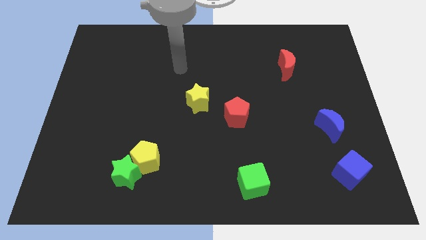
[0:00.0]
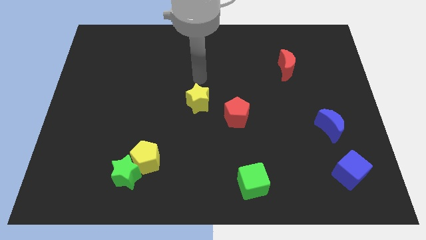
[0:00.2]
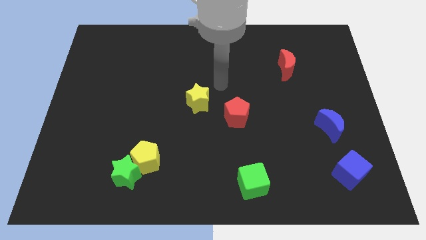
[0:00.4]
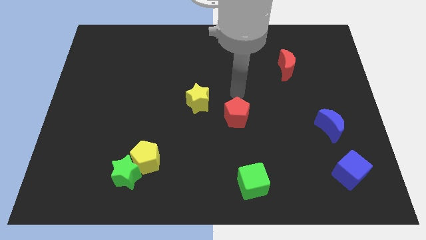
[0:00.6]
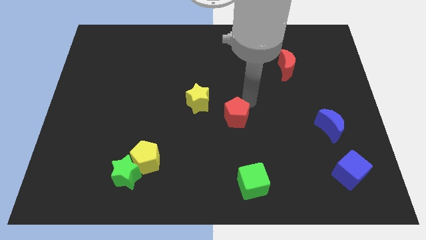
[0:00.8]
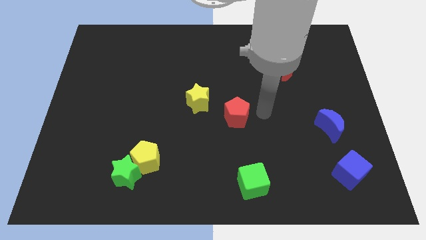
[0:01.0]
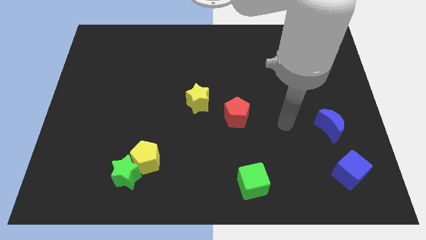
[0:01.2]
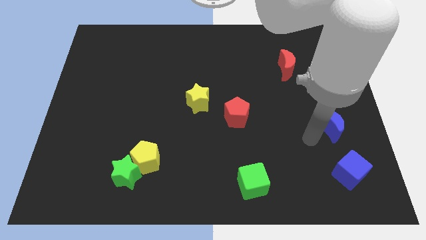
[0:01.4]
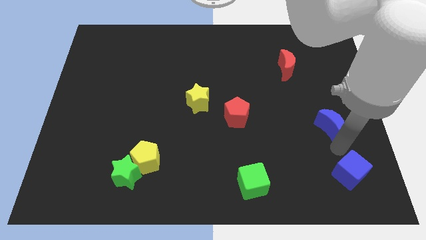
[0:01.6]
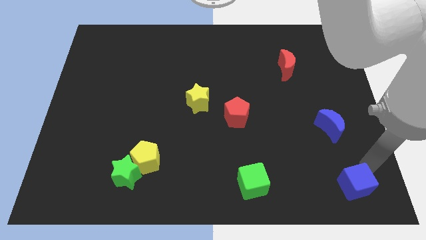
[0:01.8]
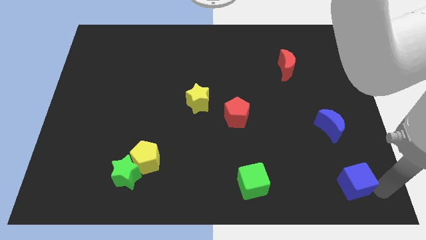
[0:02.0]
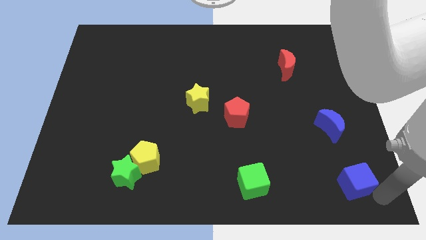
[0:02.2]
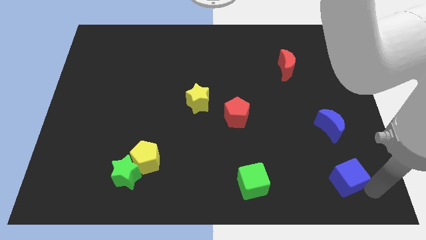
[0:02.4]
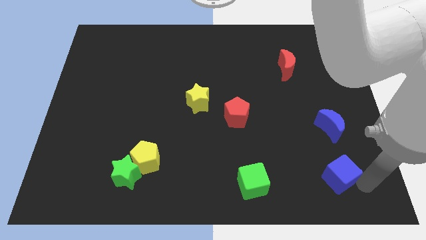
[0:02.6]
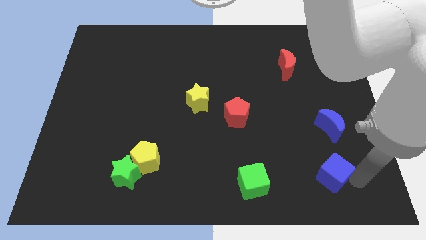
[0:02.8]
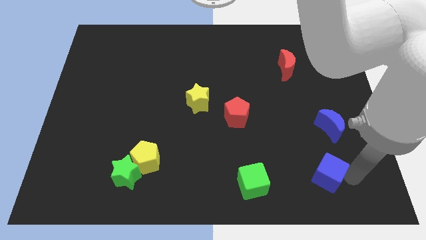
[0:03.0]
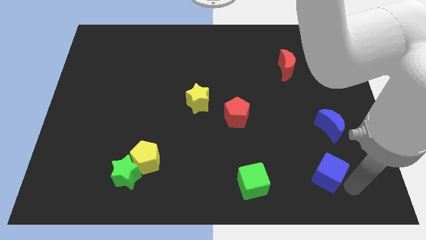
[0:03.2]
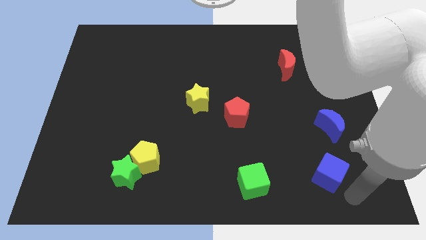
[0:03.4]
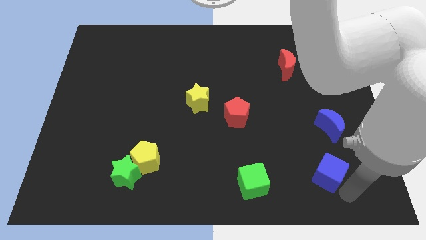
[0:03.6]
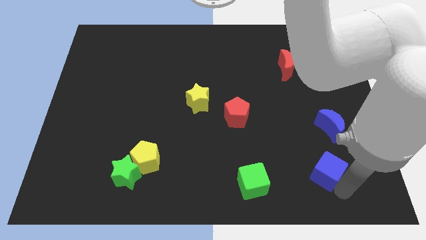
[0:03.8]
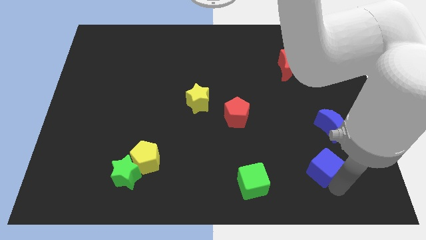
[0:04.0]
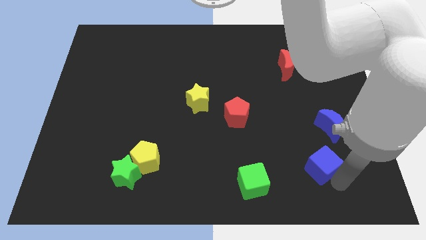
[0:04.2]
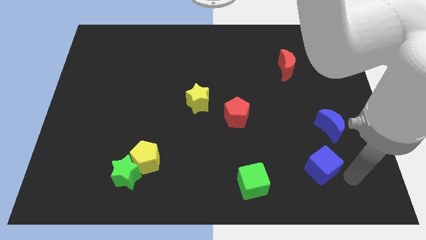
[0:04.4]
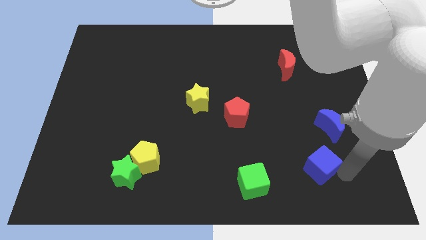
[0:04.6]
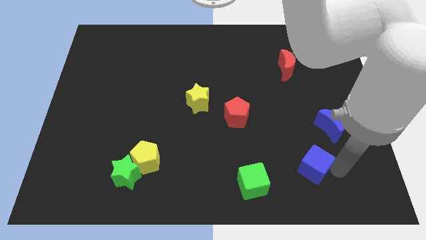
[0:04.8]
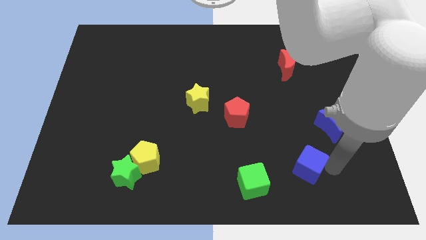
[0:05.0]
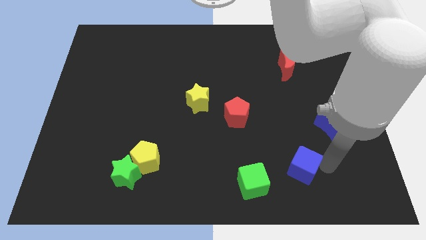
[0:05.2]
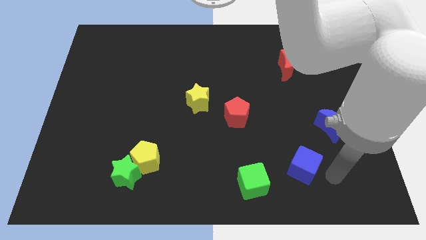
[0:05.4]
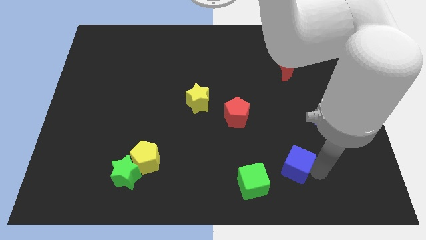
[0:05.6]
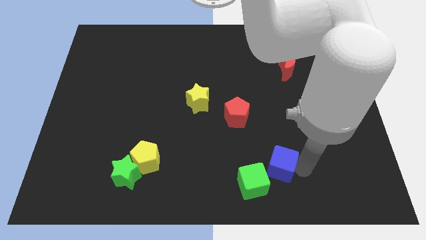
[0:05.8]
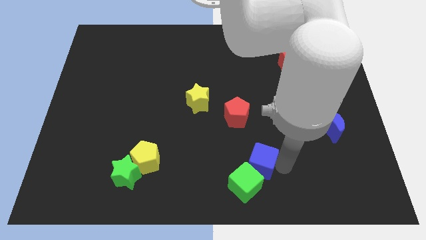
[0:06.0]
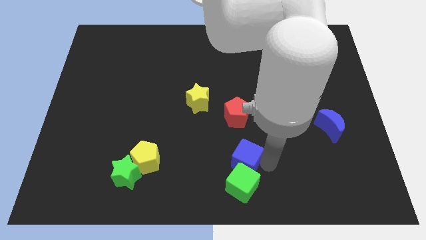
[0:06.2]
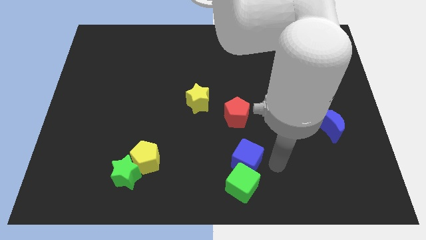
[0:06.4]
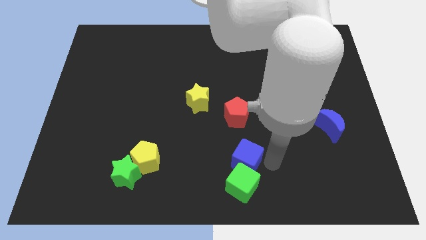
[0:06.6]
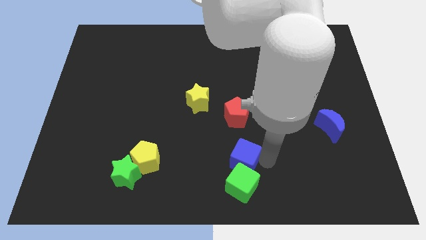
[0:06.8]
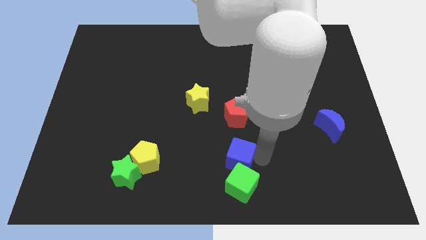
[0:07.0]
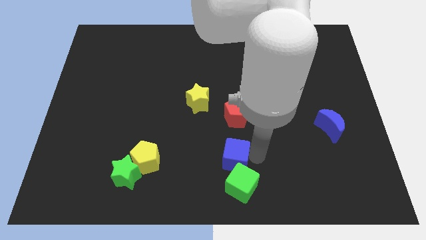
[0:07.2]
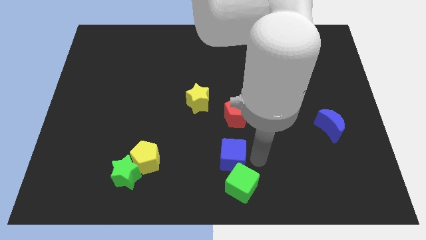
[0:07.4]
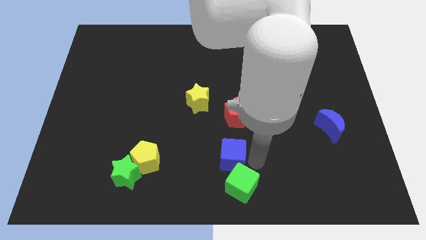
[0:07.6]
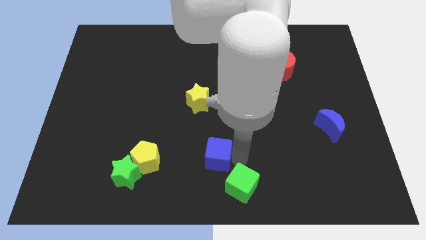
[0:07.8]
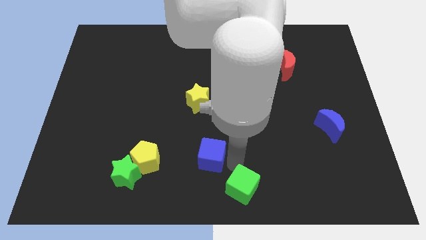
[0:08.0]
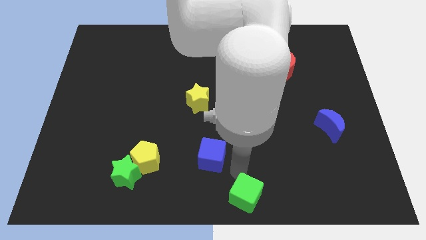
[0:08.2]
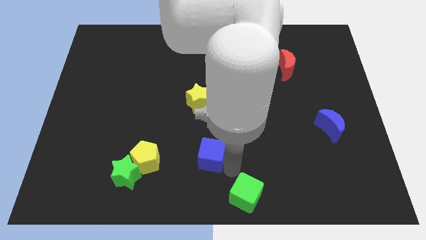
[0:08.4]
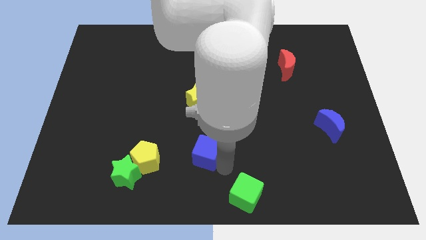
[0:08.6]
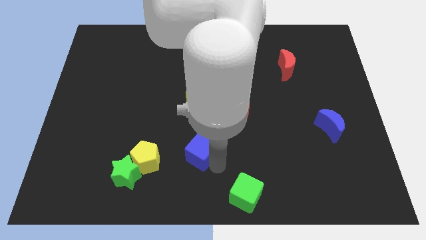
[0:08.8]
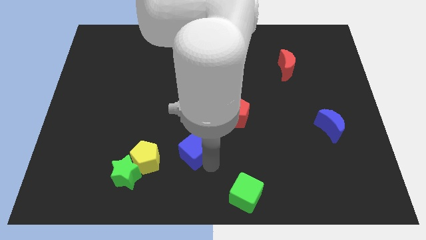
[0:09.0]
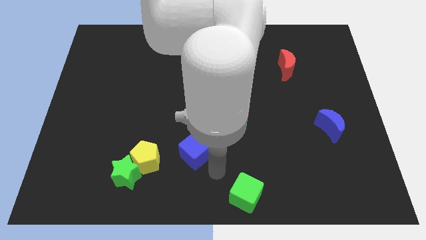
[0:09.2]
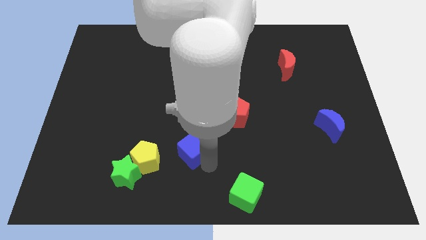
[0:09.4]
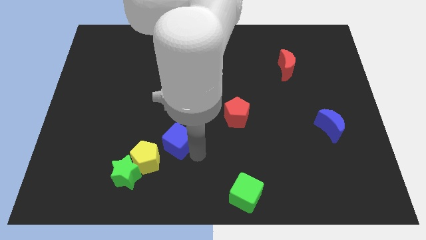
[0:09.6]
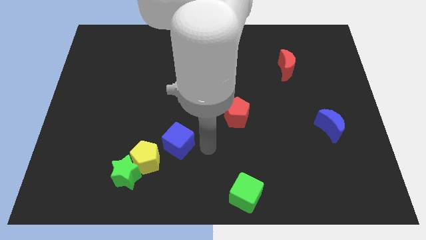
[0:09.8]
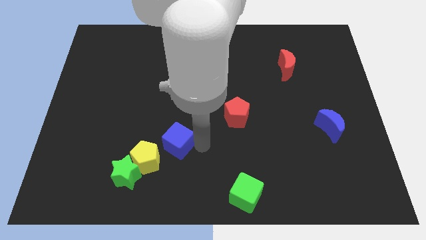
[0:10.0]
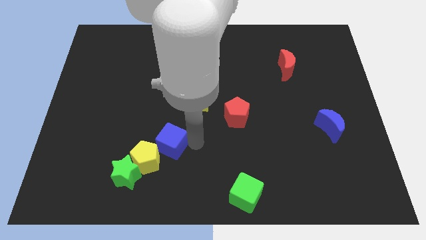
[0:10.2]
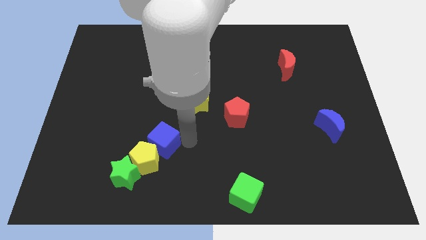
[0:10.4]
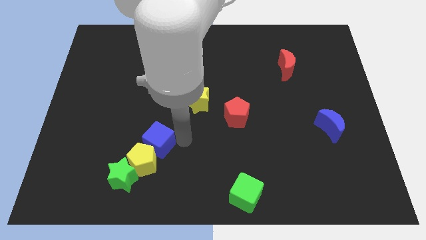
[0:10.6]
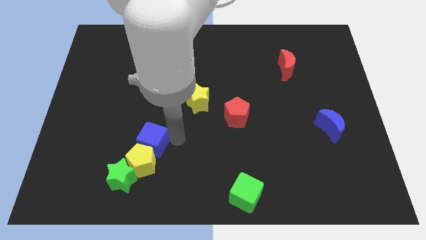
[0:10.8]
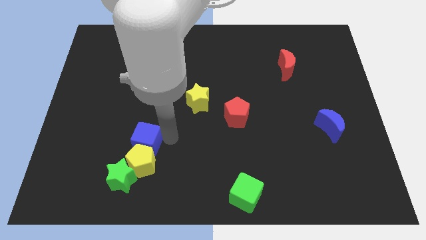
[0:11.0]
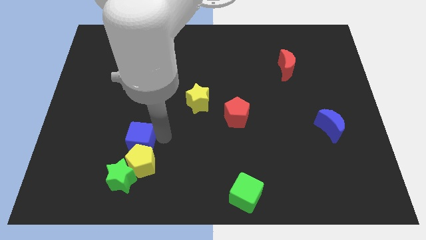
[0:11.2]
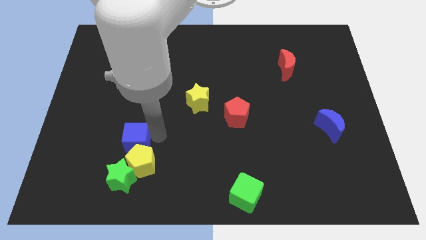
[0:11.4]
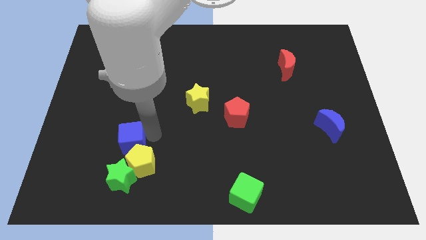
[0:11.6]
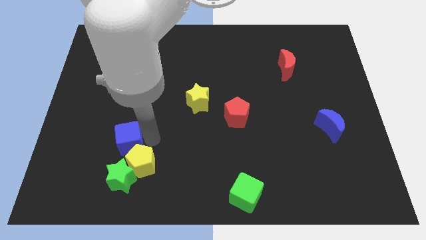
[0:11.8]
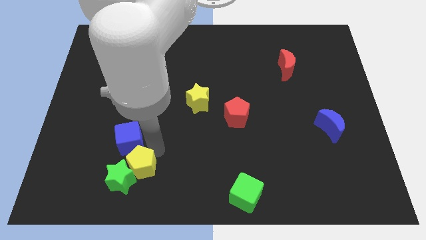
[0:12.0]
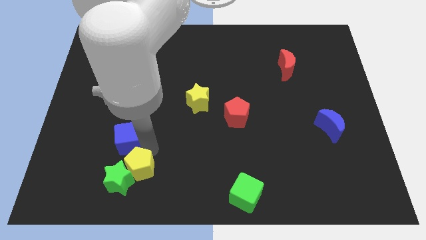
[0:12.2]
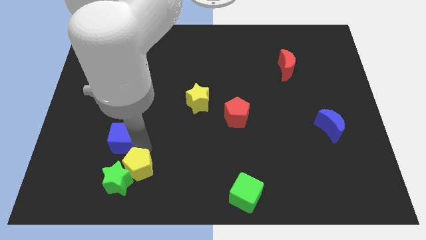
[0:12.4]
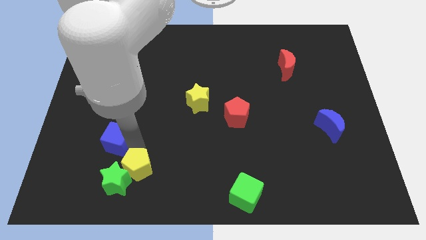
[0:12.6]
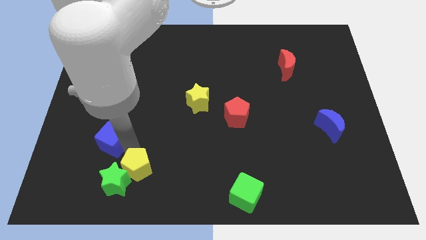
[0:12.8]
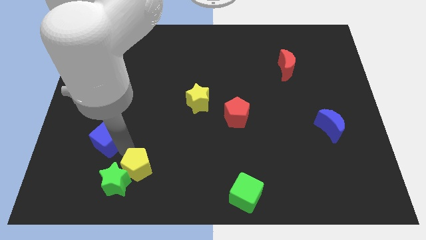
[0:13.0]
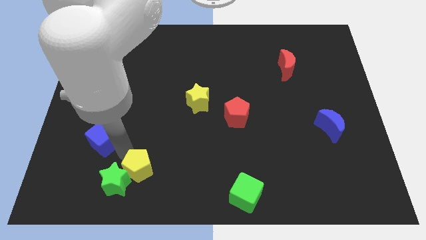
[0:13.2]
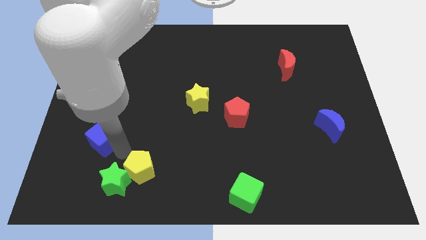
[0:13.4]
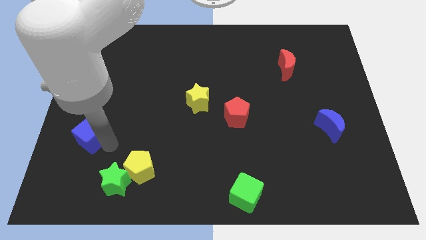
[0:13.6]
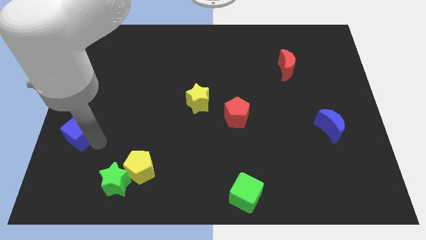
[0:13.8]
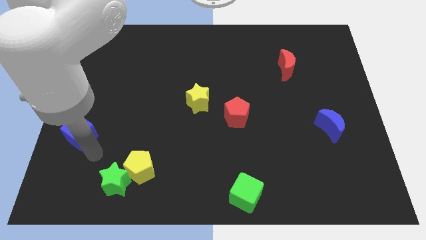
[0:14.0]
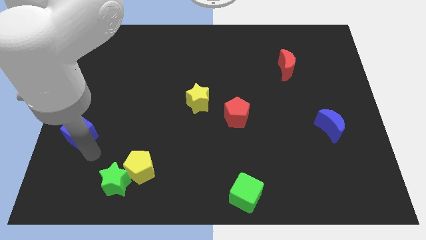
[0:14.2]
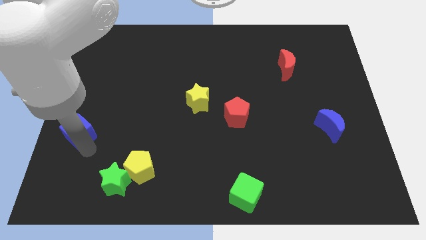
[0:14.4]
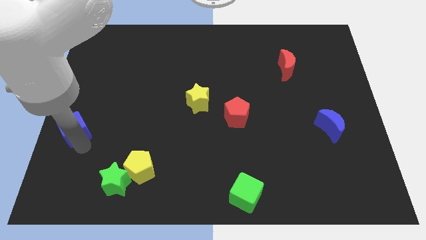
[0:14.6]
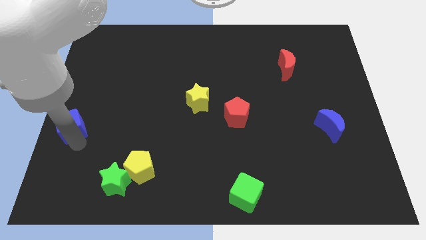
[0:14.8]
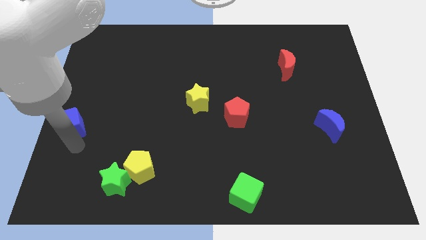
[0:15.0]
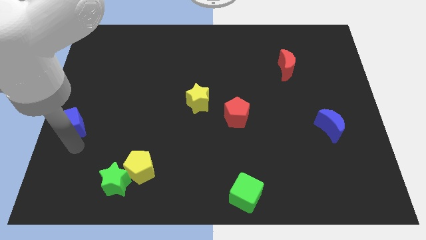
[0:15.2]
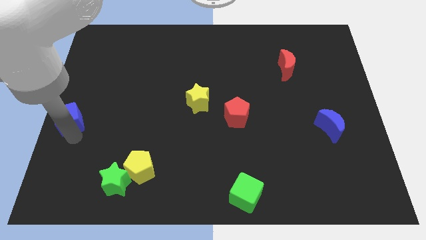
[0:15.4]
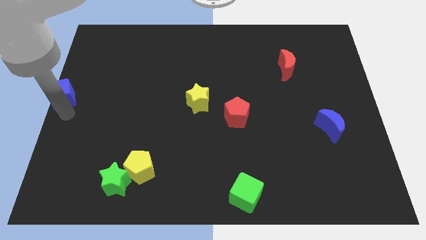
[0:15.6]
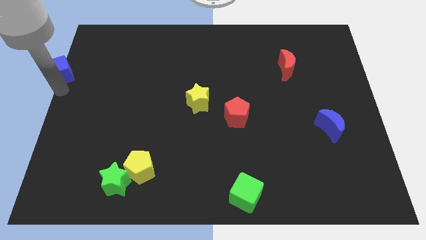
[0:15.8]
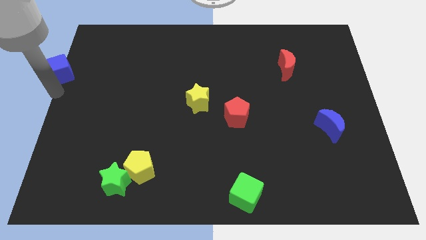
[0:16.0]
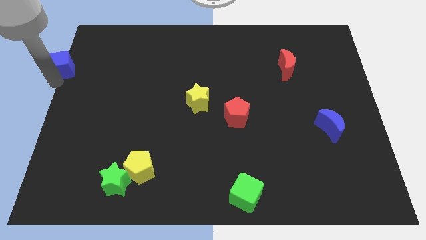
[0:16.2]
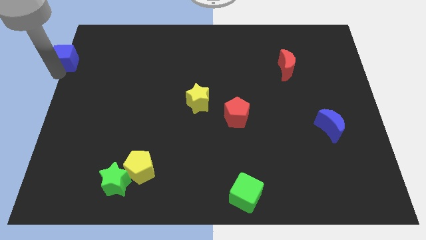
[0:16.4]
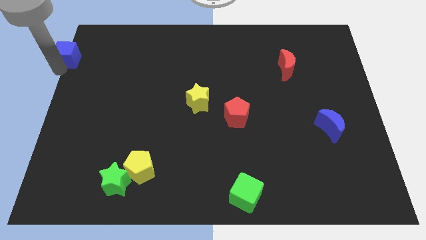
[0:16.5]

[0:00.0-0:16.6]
move the blue cube to the upper left corner
